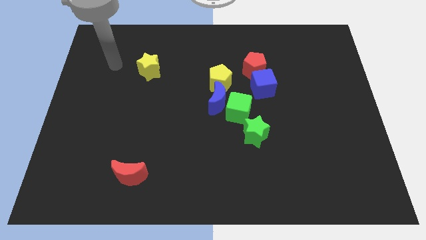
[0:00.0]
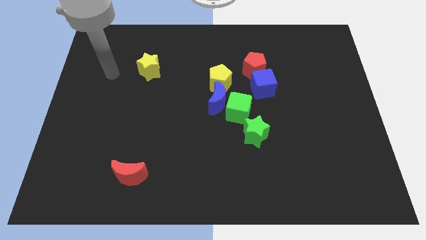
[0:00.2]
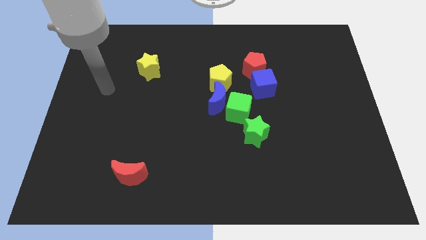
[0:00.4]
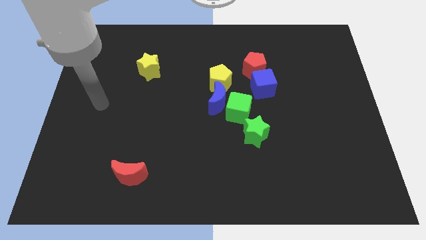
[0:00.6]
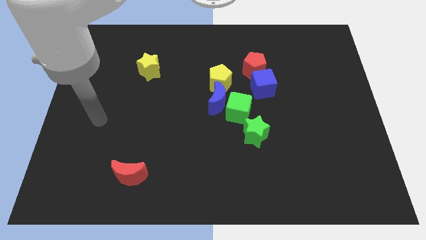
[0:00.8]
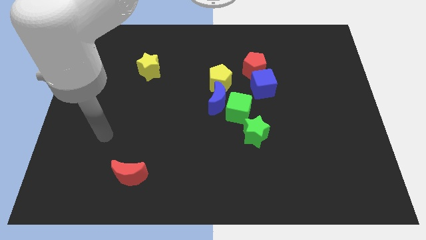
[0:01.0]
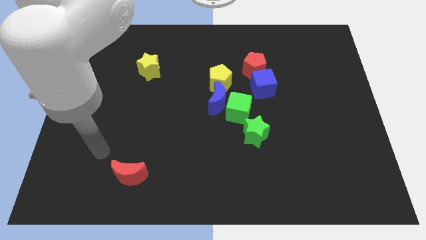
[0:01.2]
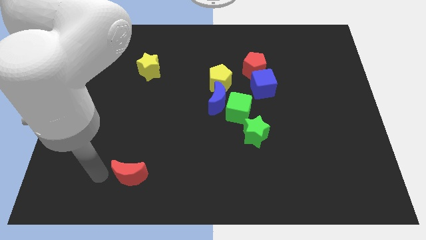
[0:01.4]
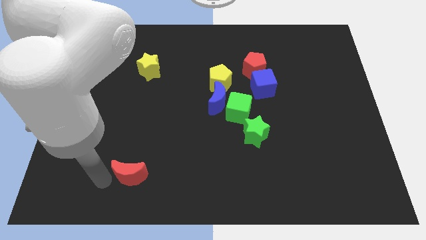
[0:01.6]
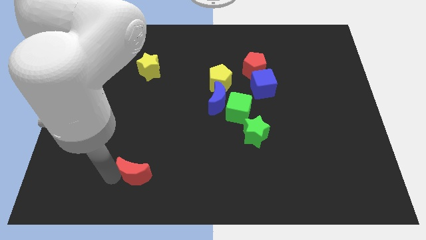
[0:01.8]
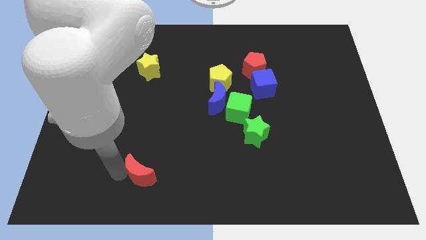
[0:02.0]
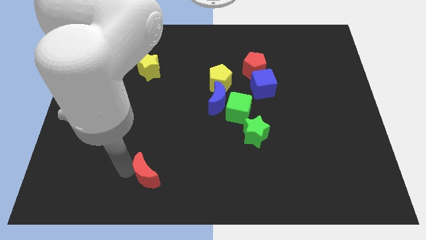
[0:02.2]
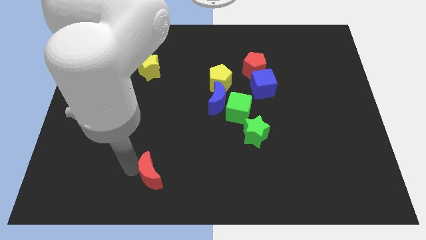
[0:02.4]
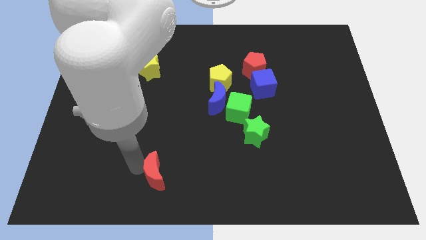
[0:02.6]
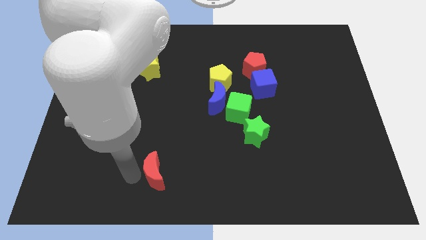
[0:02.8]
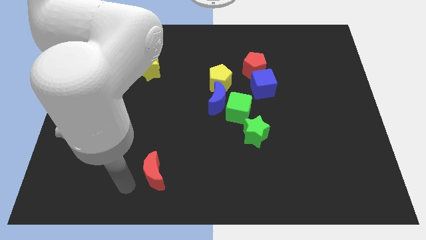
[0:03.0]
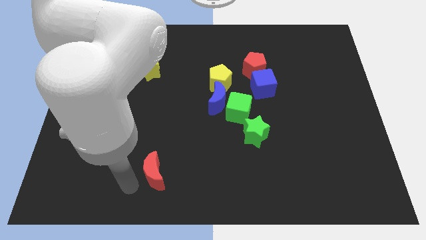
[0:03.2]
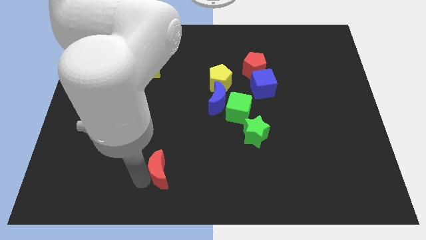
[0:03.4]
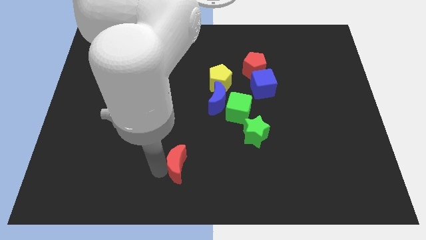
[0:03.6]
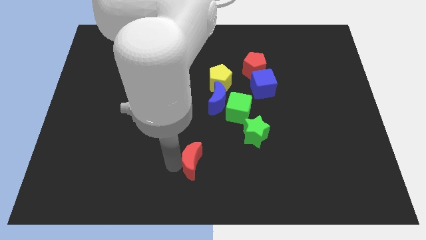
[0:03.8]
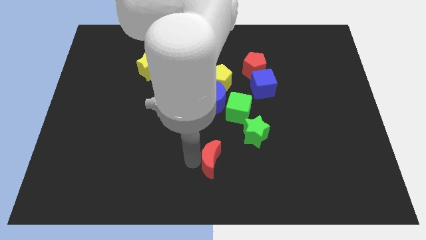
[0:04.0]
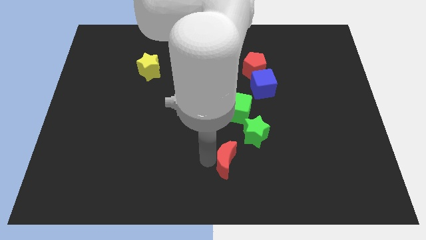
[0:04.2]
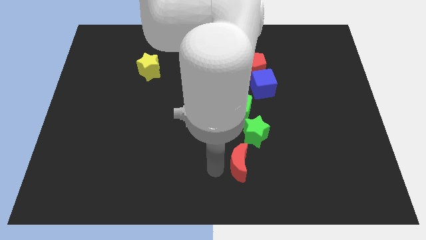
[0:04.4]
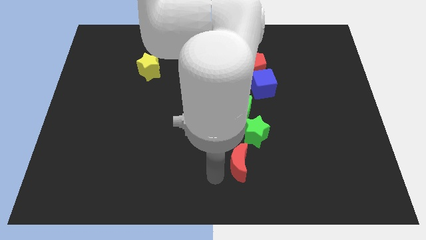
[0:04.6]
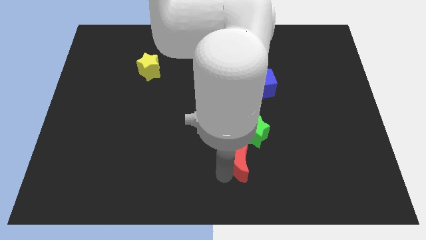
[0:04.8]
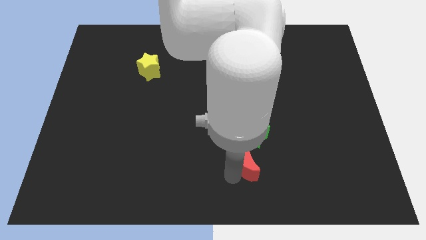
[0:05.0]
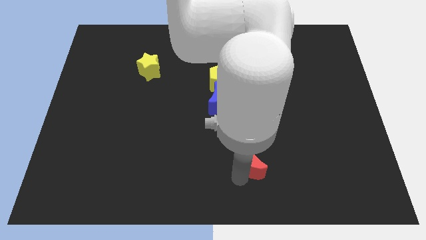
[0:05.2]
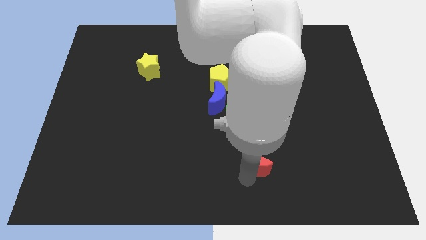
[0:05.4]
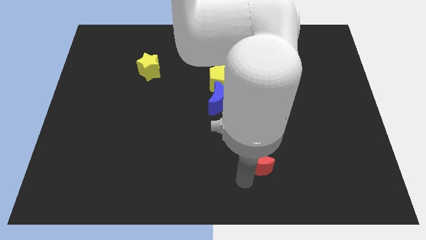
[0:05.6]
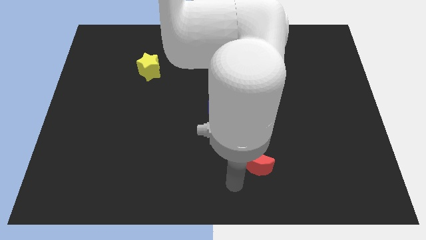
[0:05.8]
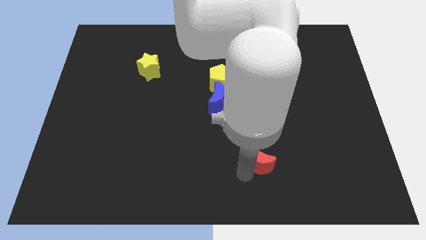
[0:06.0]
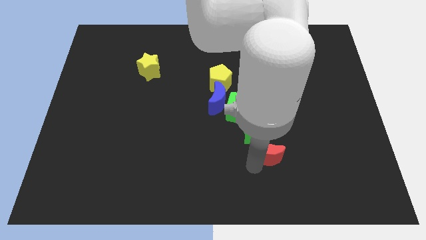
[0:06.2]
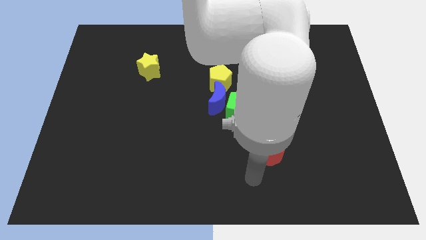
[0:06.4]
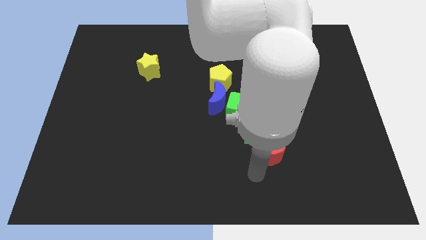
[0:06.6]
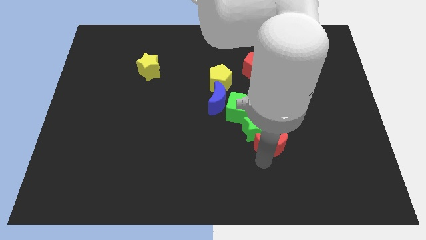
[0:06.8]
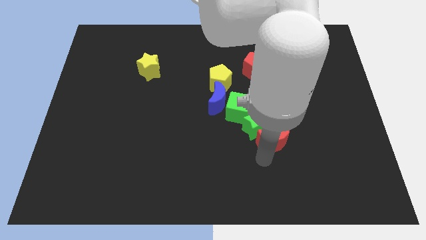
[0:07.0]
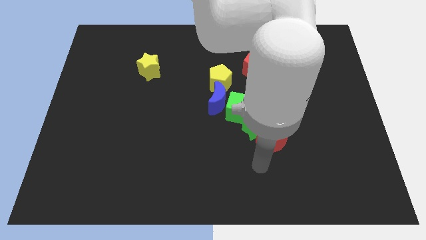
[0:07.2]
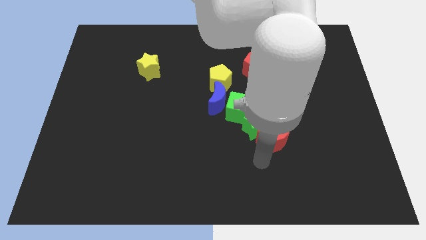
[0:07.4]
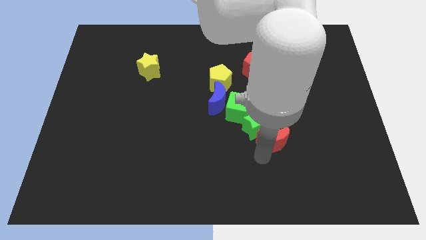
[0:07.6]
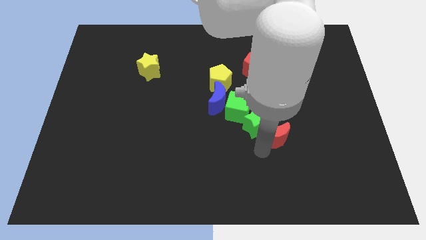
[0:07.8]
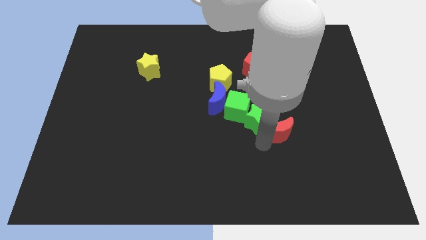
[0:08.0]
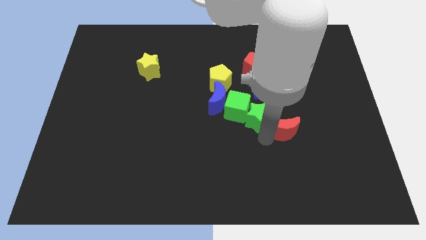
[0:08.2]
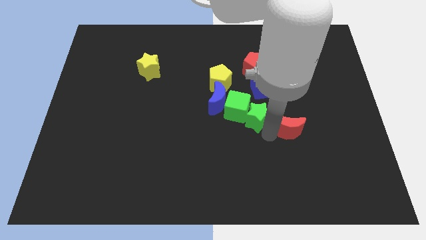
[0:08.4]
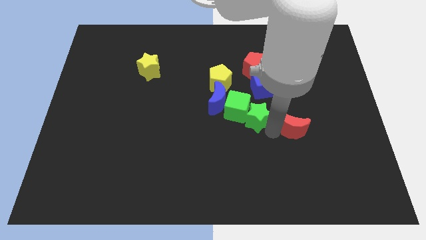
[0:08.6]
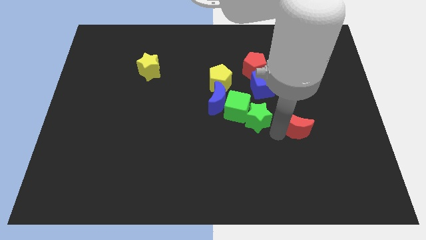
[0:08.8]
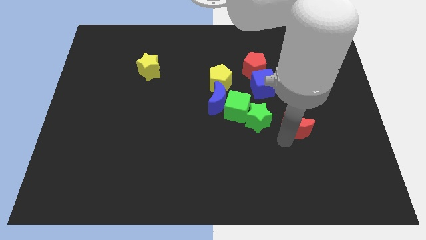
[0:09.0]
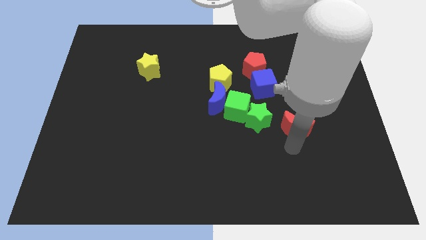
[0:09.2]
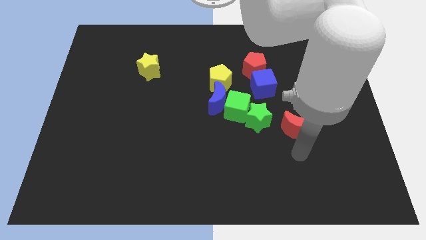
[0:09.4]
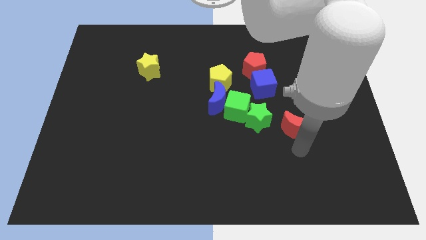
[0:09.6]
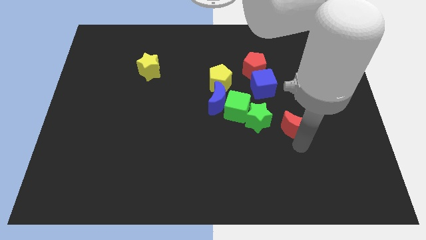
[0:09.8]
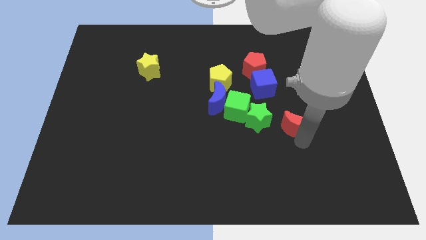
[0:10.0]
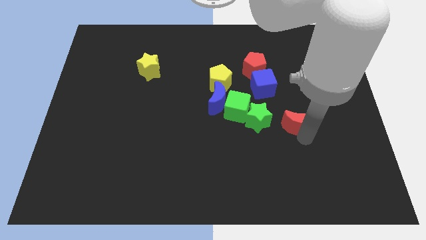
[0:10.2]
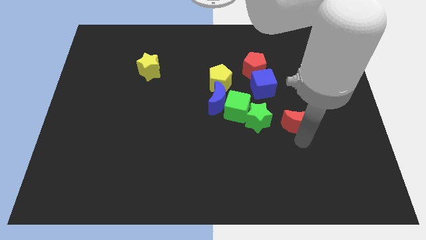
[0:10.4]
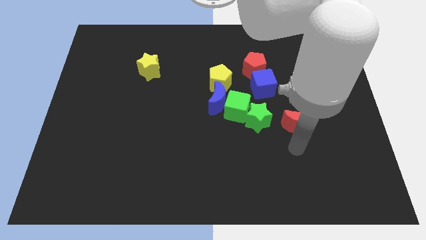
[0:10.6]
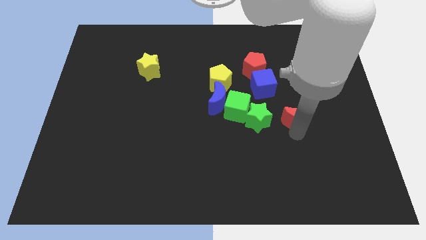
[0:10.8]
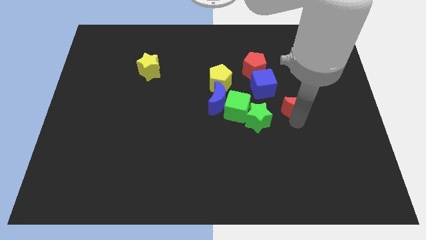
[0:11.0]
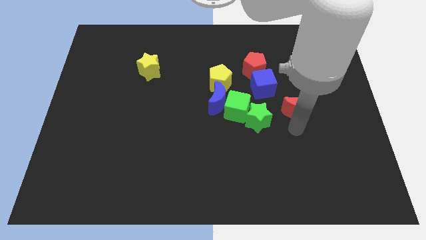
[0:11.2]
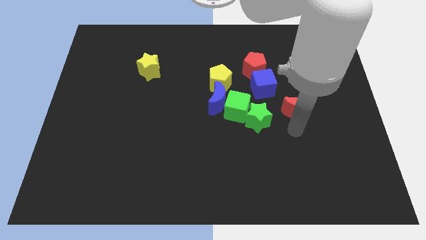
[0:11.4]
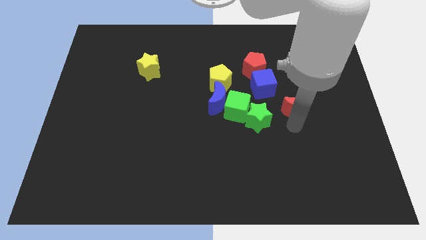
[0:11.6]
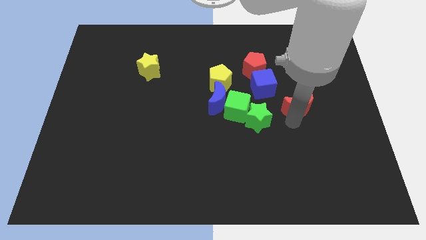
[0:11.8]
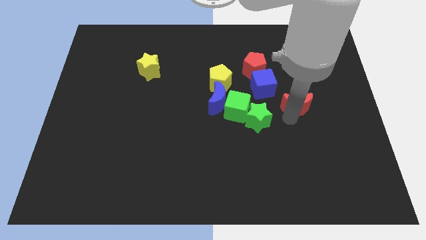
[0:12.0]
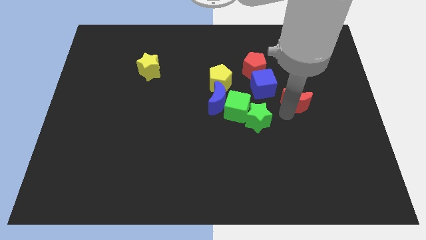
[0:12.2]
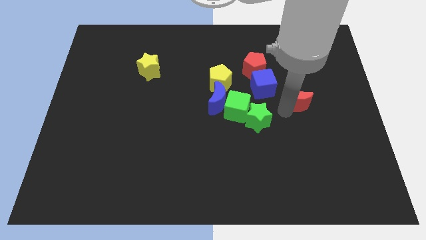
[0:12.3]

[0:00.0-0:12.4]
slide the red moon just right of the blue cube
